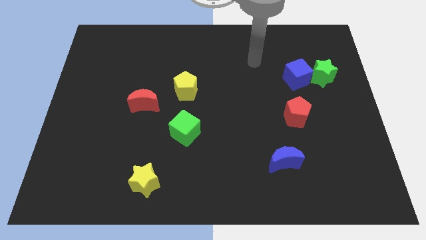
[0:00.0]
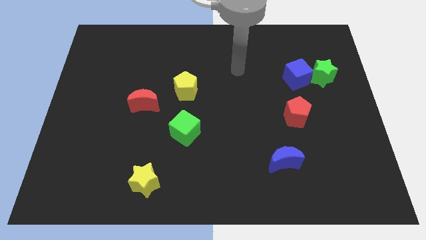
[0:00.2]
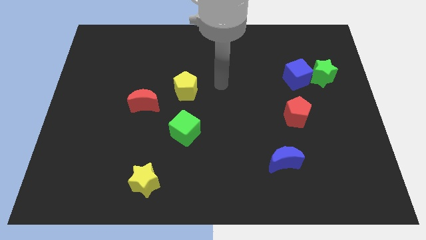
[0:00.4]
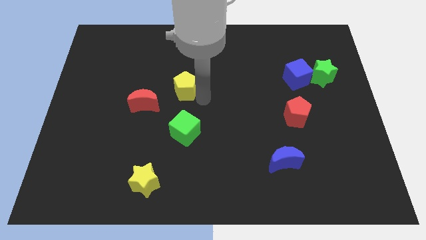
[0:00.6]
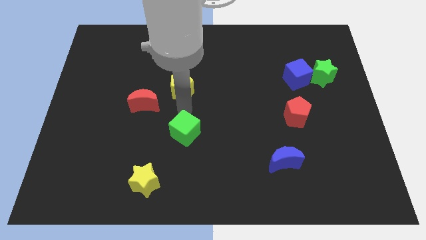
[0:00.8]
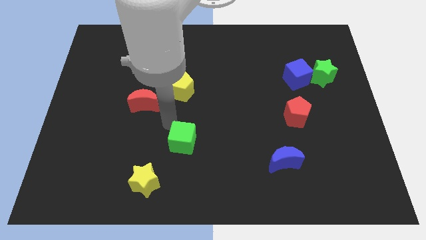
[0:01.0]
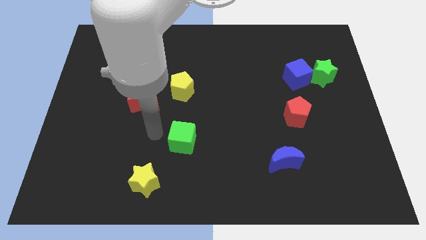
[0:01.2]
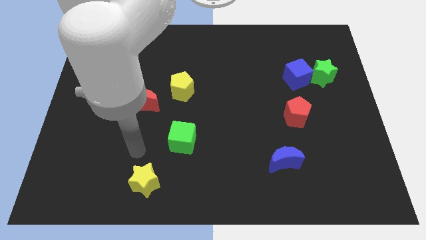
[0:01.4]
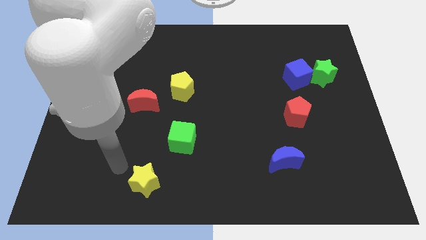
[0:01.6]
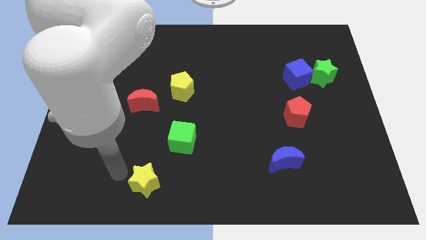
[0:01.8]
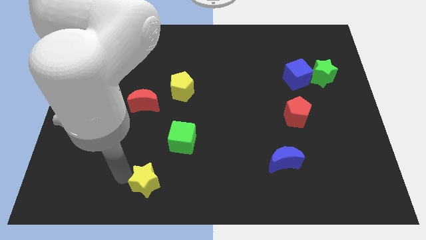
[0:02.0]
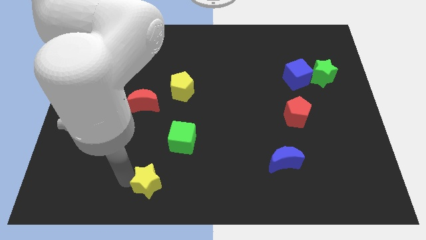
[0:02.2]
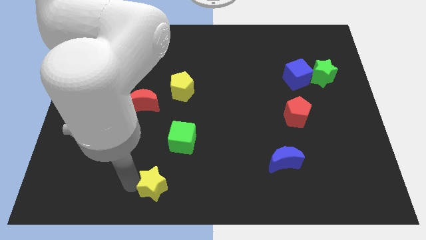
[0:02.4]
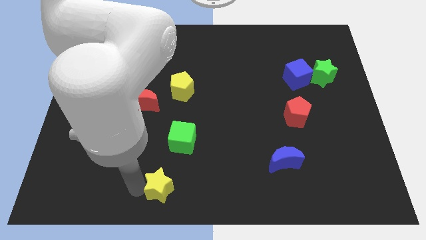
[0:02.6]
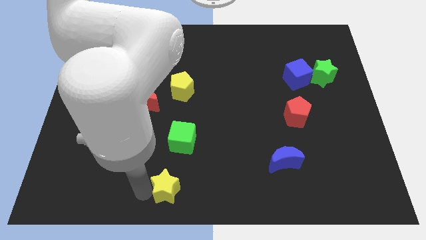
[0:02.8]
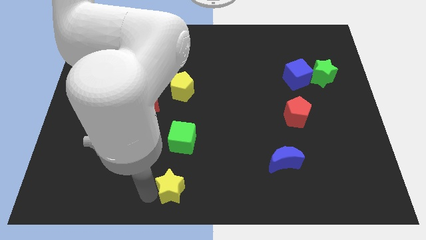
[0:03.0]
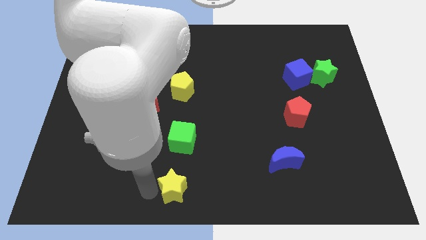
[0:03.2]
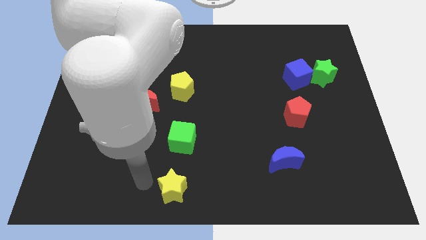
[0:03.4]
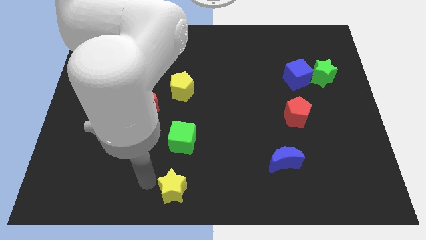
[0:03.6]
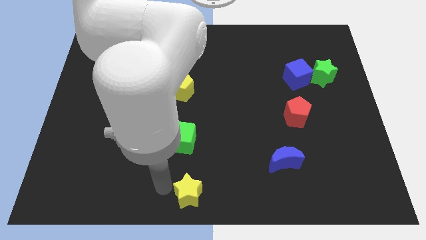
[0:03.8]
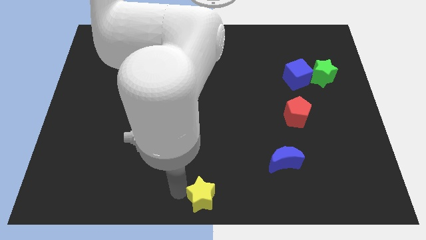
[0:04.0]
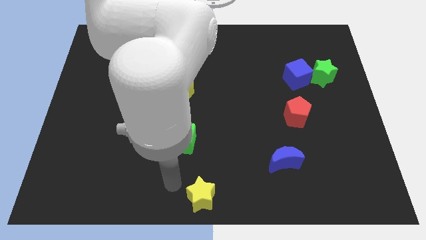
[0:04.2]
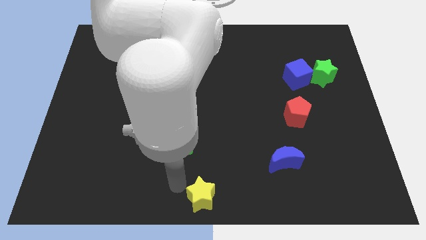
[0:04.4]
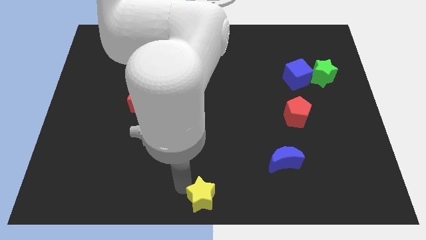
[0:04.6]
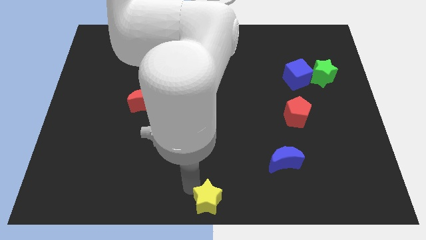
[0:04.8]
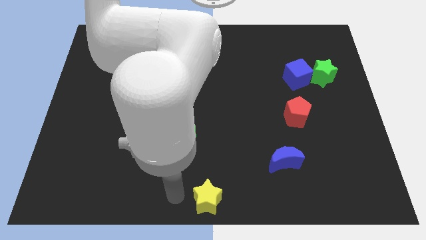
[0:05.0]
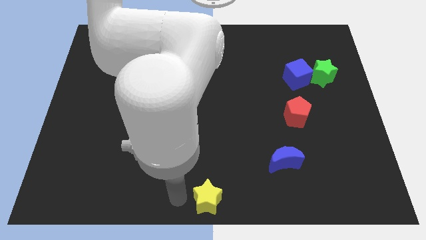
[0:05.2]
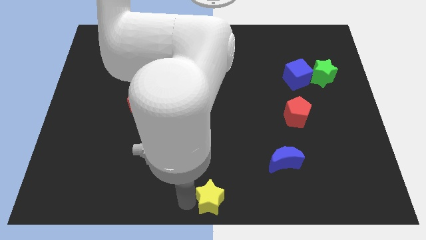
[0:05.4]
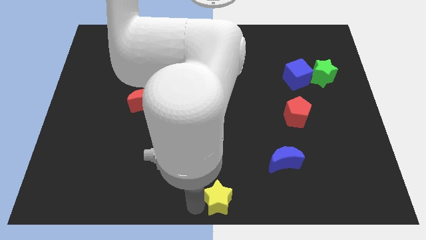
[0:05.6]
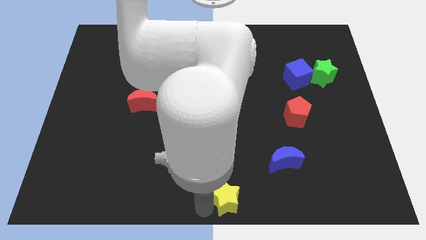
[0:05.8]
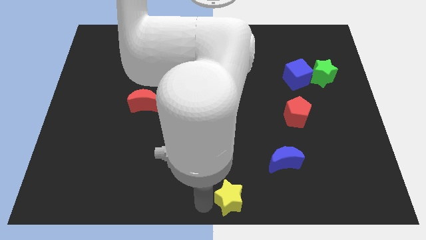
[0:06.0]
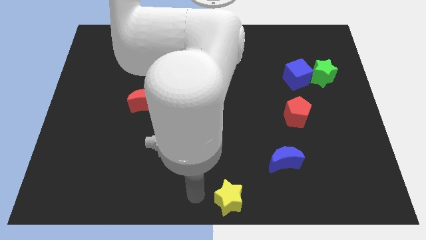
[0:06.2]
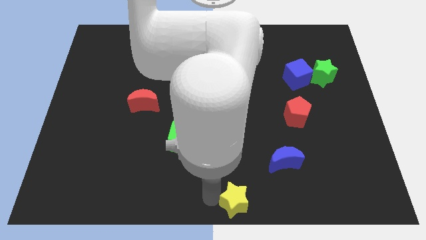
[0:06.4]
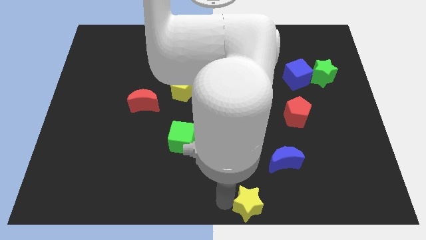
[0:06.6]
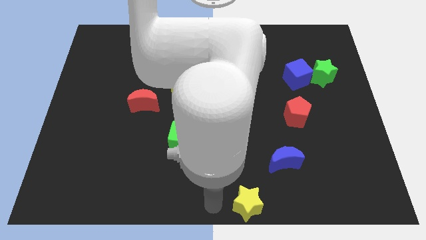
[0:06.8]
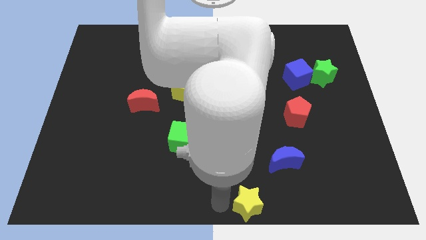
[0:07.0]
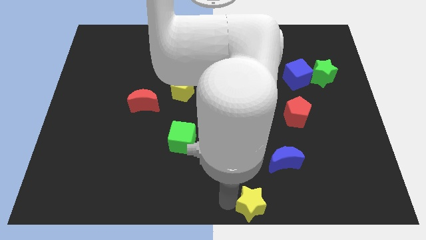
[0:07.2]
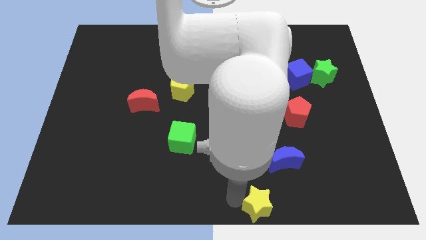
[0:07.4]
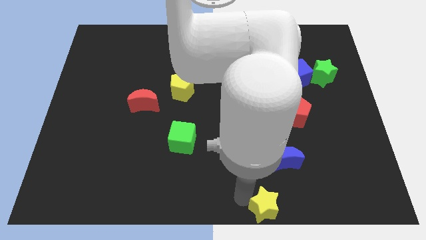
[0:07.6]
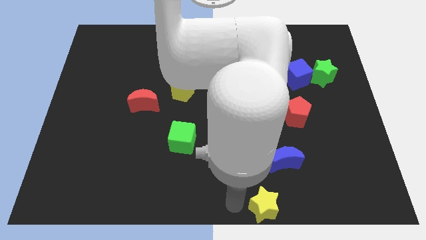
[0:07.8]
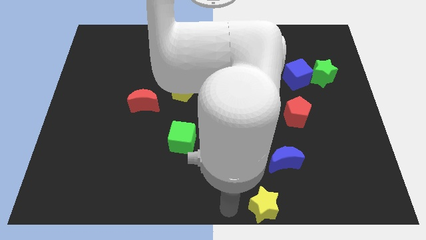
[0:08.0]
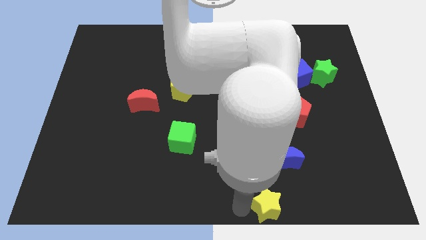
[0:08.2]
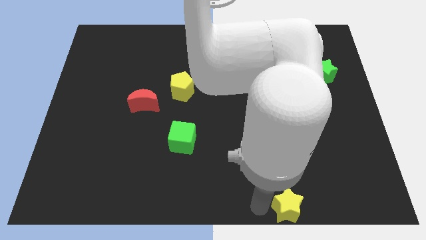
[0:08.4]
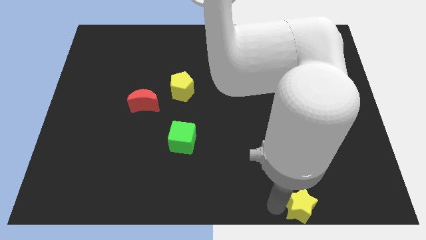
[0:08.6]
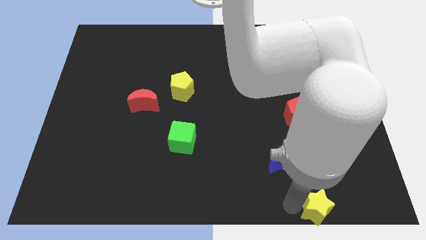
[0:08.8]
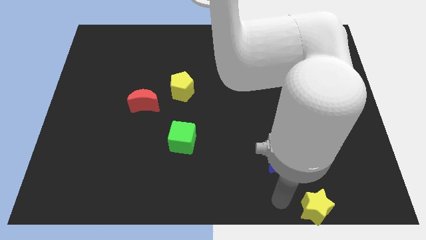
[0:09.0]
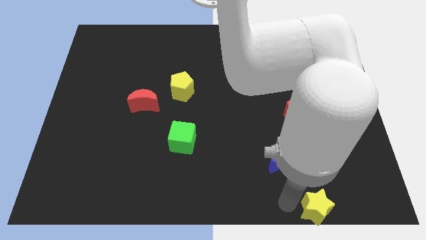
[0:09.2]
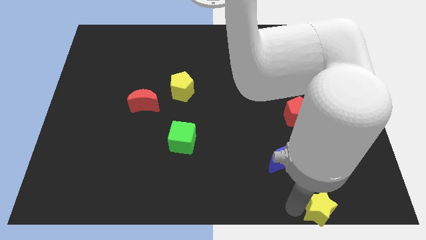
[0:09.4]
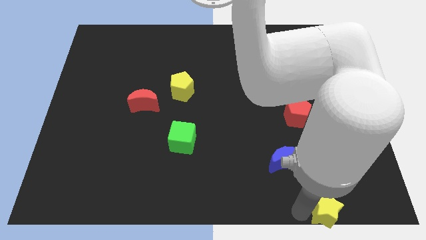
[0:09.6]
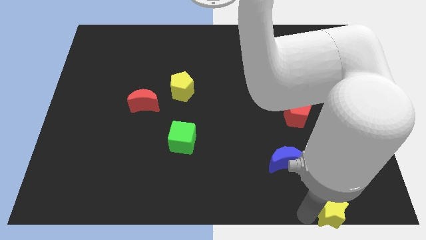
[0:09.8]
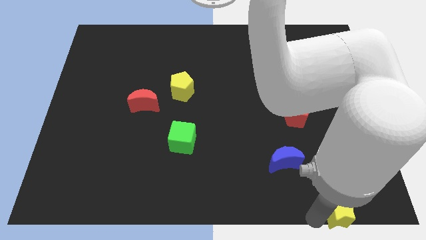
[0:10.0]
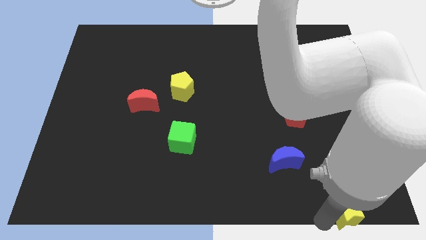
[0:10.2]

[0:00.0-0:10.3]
move the yellow star to the bottom right of the board

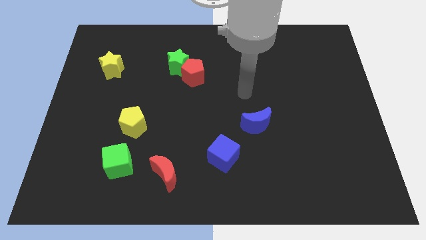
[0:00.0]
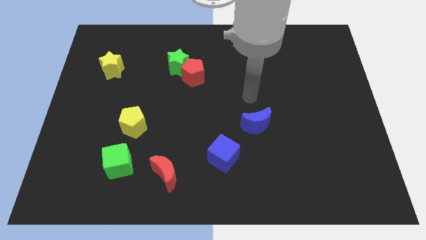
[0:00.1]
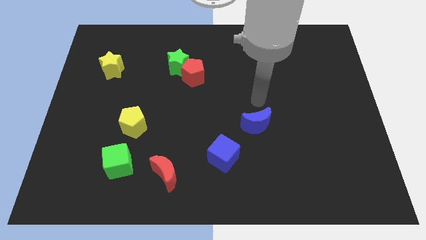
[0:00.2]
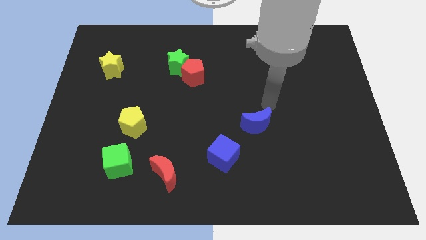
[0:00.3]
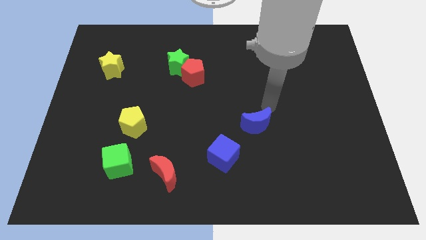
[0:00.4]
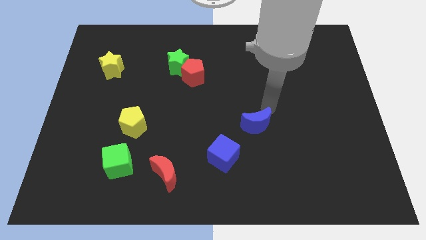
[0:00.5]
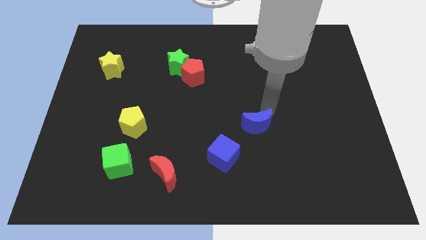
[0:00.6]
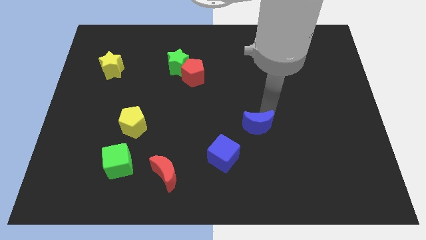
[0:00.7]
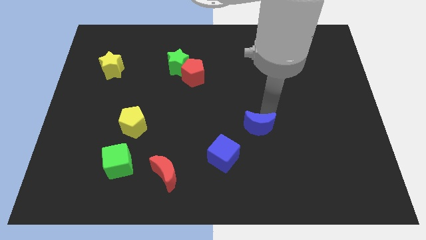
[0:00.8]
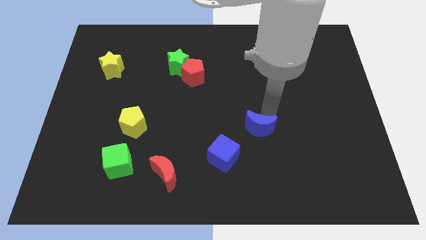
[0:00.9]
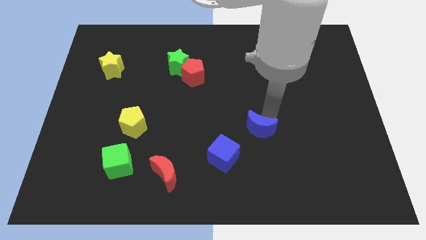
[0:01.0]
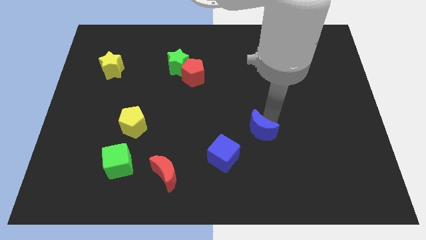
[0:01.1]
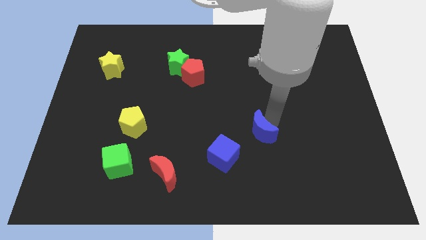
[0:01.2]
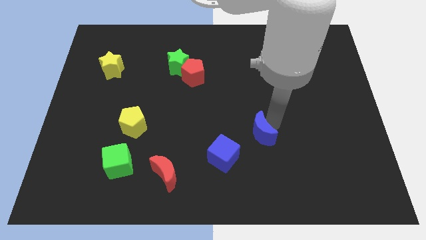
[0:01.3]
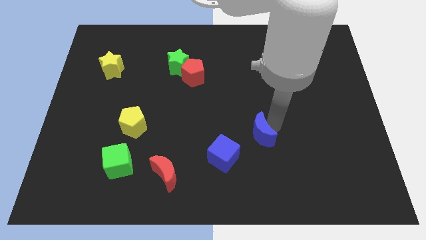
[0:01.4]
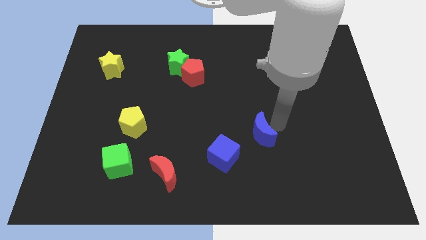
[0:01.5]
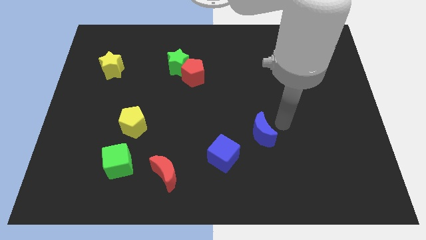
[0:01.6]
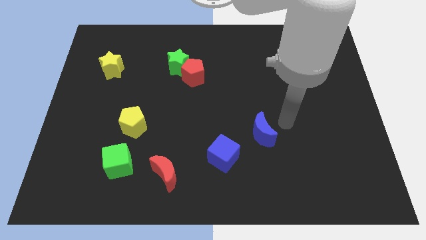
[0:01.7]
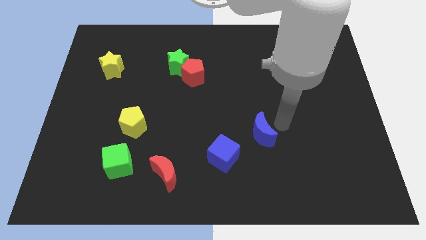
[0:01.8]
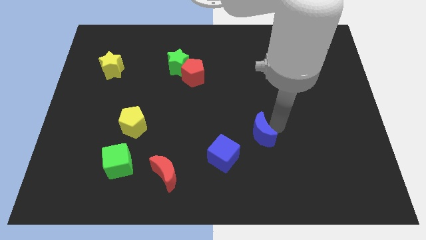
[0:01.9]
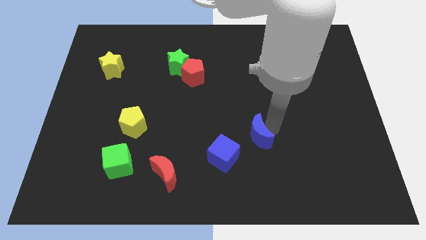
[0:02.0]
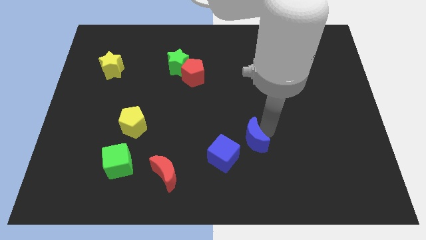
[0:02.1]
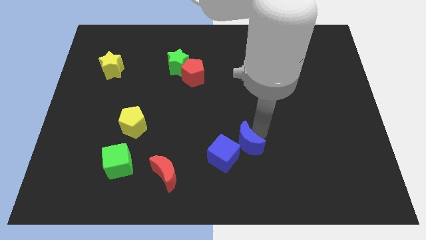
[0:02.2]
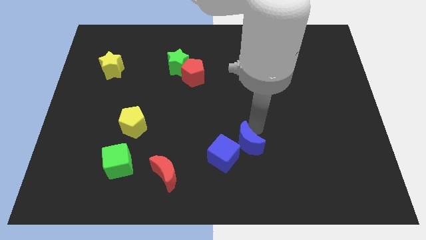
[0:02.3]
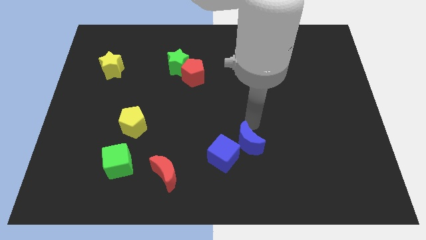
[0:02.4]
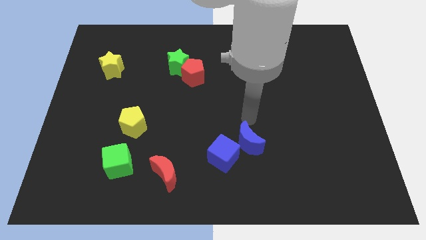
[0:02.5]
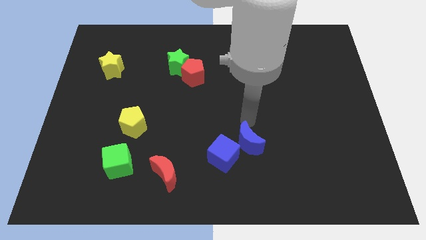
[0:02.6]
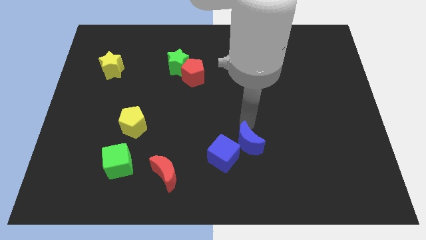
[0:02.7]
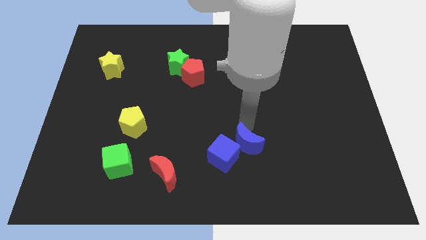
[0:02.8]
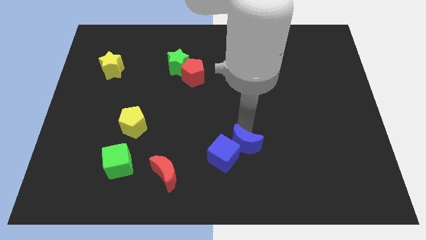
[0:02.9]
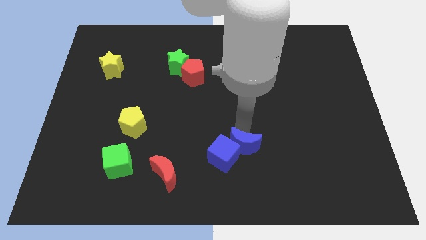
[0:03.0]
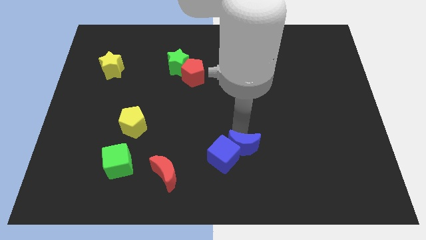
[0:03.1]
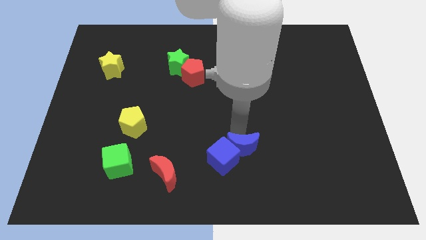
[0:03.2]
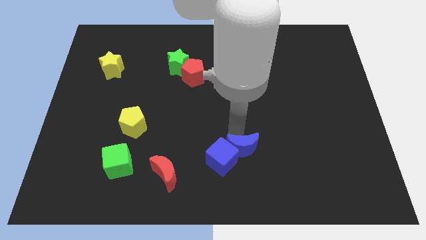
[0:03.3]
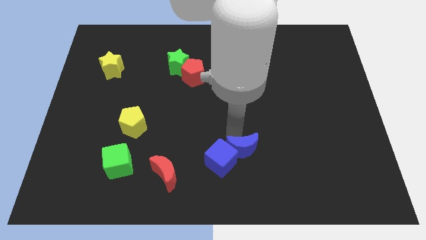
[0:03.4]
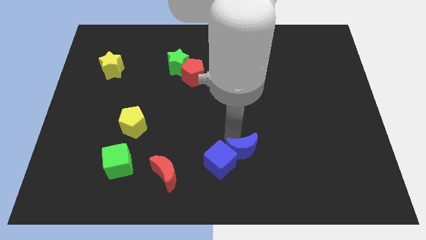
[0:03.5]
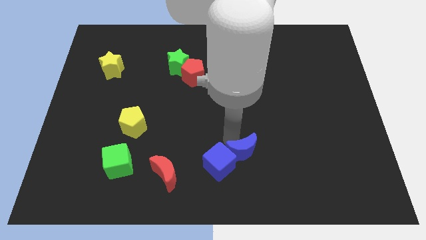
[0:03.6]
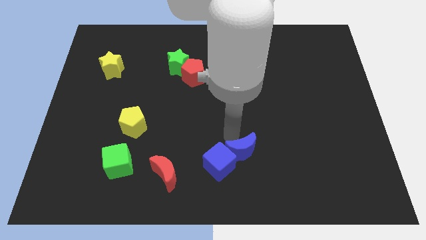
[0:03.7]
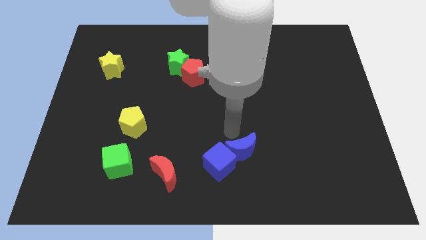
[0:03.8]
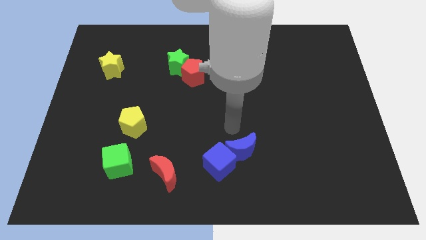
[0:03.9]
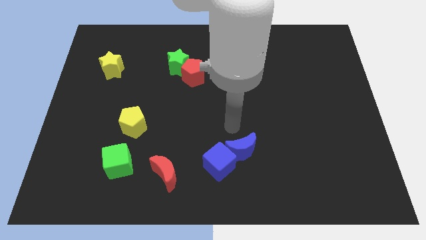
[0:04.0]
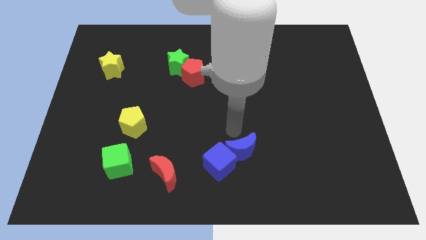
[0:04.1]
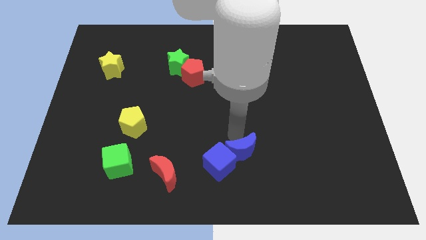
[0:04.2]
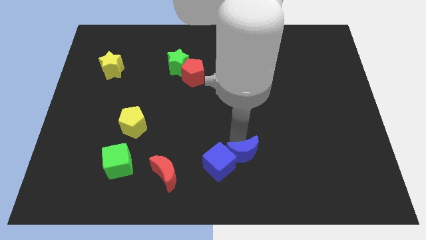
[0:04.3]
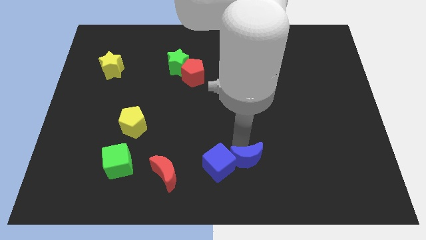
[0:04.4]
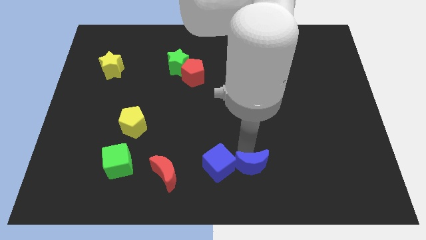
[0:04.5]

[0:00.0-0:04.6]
slide the blue moon to the bottom
